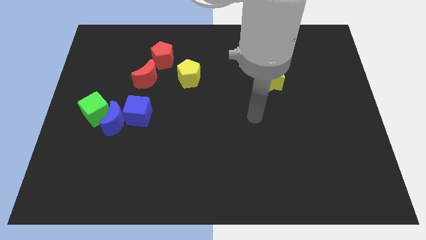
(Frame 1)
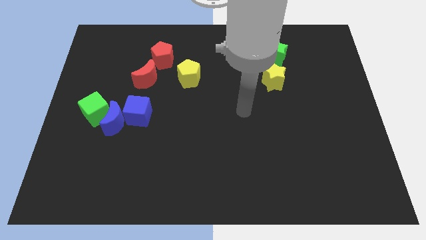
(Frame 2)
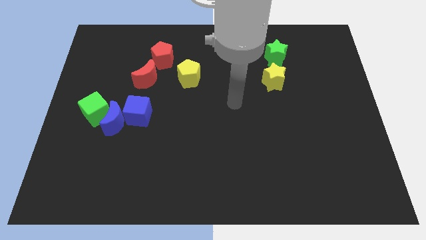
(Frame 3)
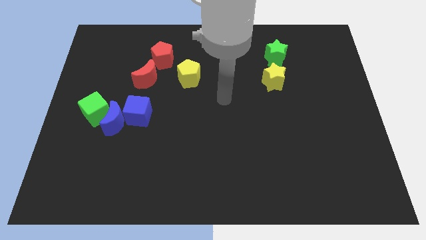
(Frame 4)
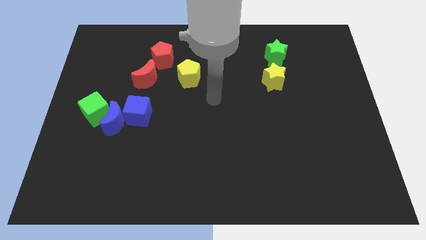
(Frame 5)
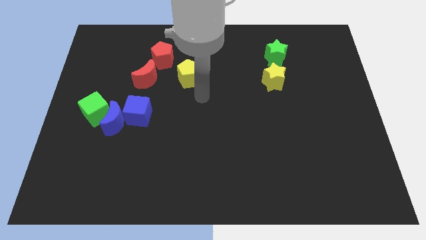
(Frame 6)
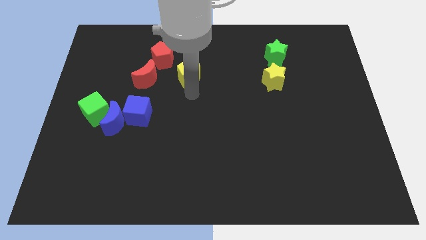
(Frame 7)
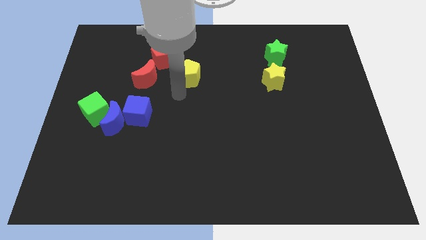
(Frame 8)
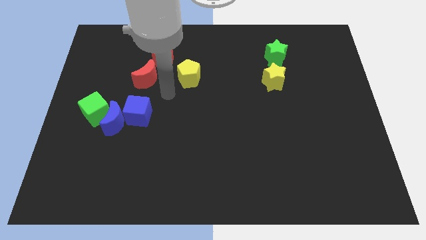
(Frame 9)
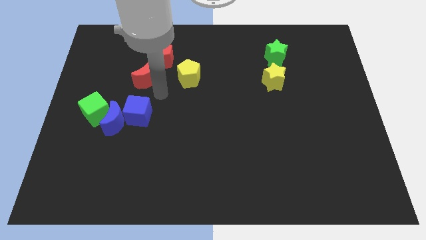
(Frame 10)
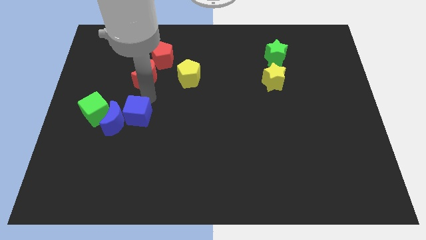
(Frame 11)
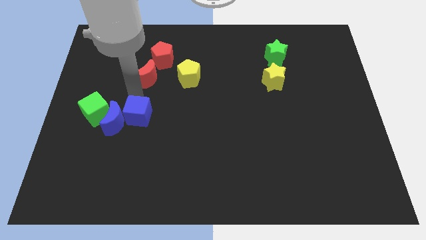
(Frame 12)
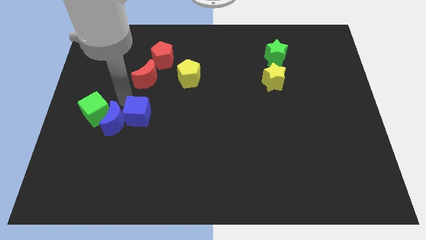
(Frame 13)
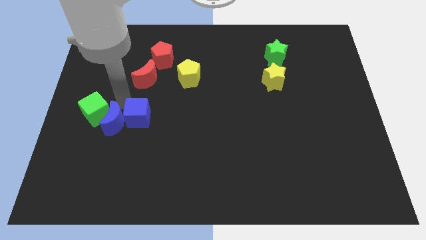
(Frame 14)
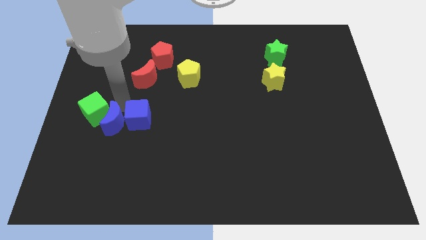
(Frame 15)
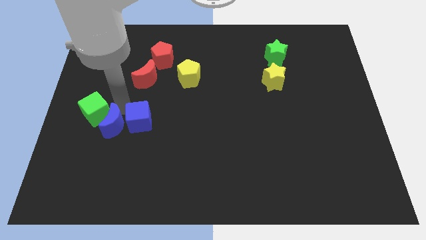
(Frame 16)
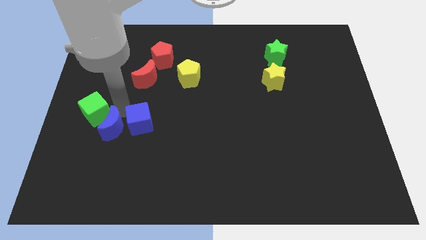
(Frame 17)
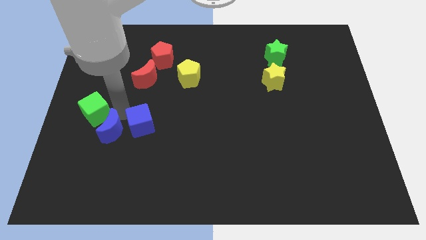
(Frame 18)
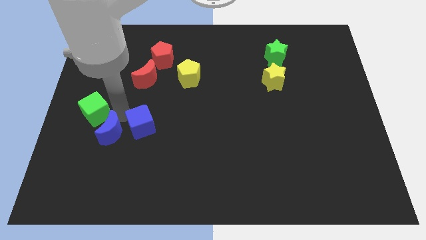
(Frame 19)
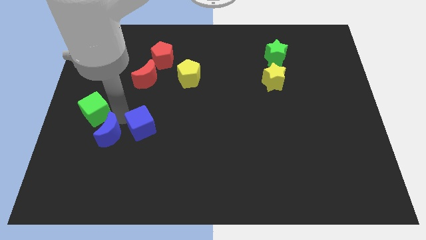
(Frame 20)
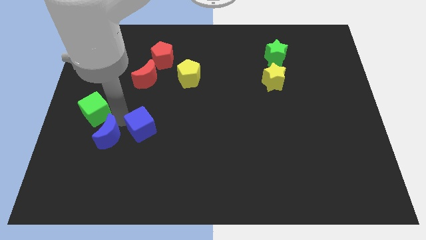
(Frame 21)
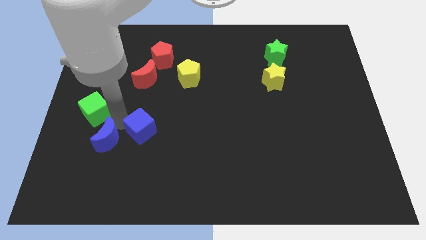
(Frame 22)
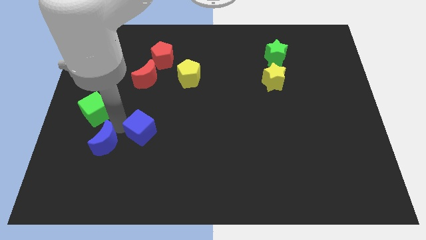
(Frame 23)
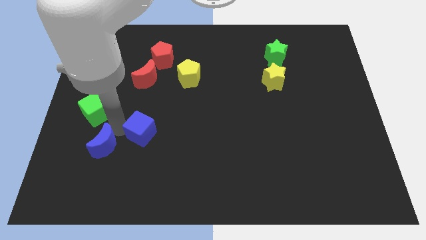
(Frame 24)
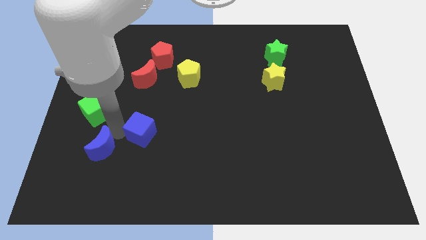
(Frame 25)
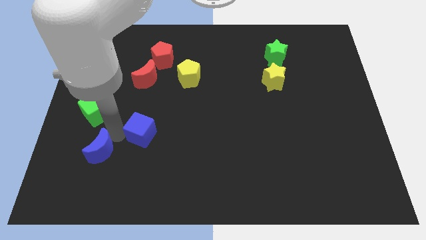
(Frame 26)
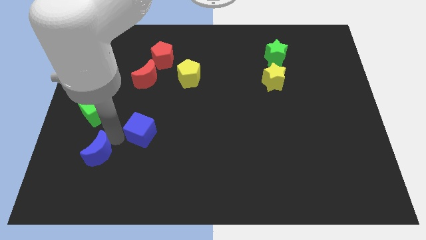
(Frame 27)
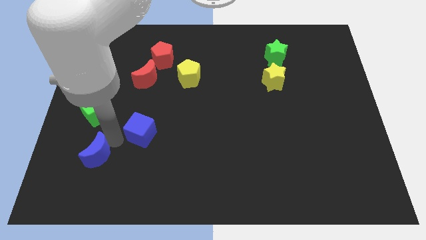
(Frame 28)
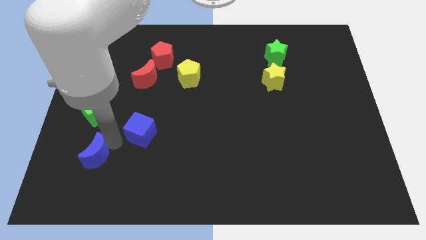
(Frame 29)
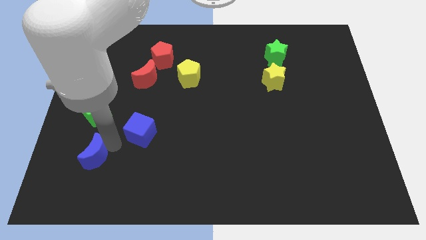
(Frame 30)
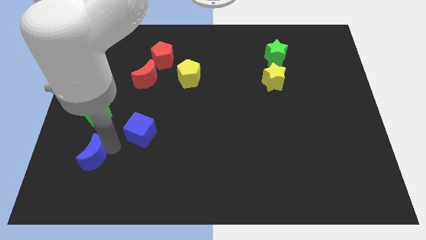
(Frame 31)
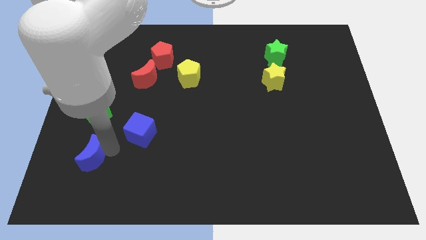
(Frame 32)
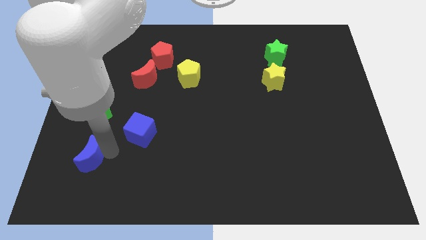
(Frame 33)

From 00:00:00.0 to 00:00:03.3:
pull the blue moon apart from the blue cube and green cube

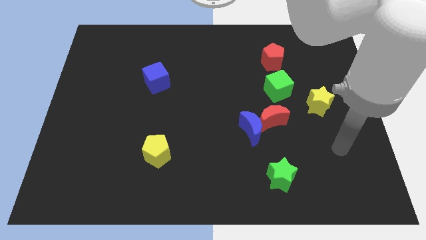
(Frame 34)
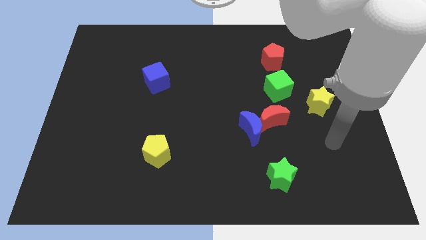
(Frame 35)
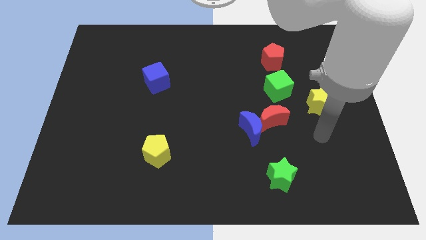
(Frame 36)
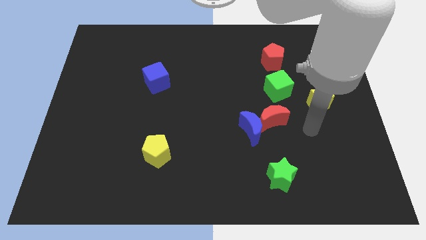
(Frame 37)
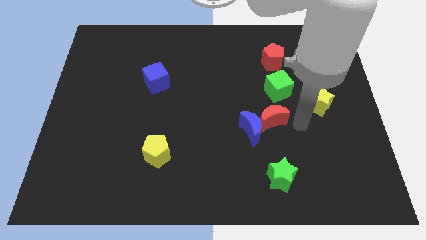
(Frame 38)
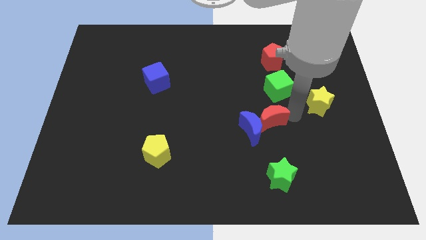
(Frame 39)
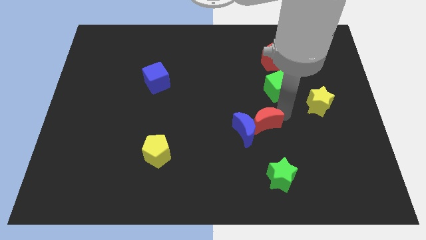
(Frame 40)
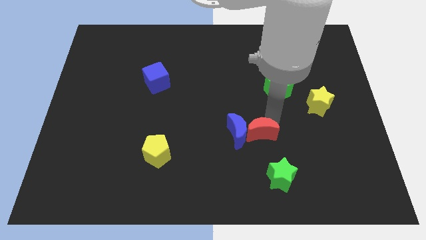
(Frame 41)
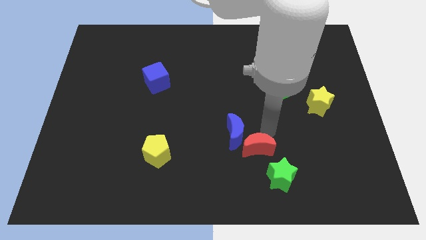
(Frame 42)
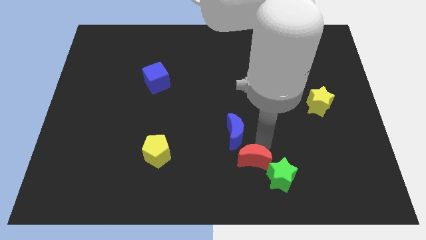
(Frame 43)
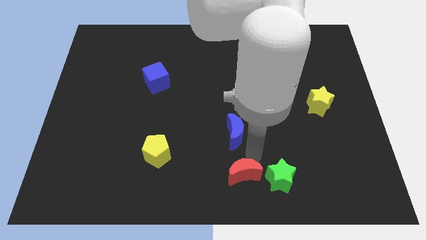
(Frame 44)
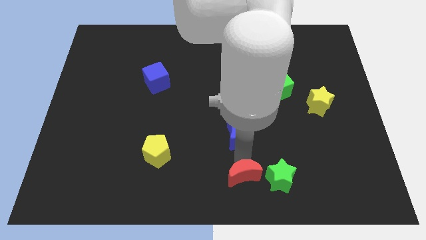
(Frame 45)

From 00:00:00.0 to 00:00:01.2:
pull the blue moon apart from the red moon

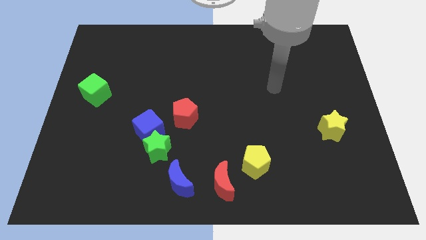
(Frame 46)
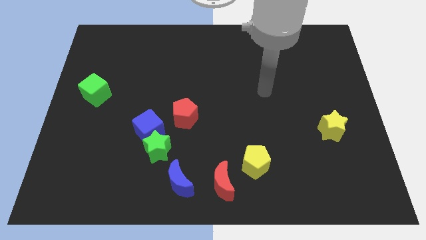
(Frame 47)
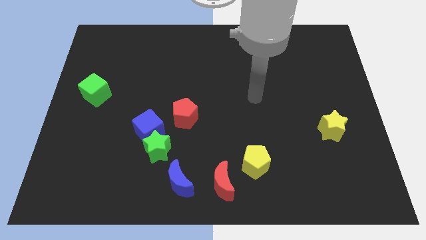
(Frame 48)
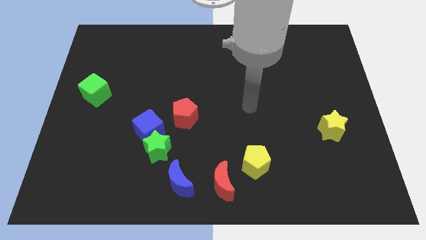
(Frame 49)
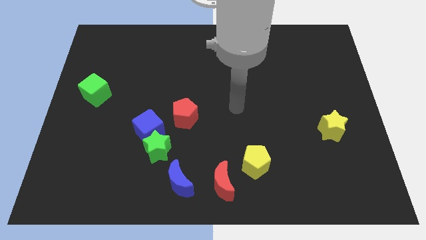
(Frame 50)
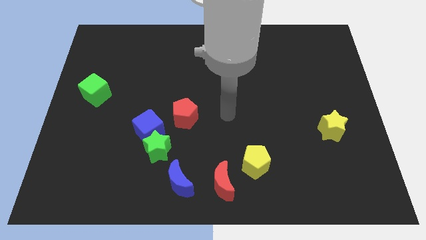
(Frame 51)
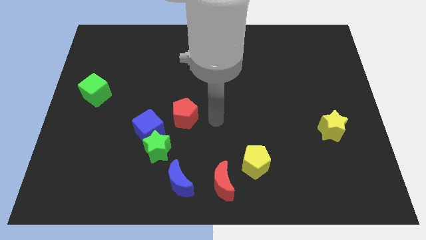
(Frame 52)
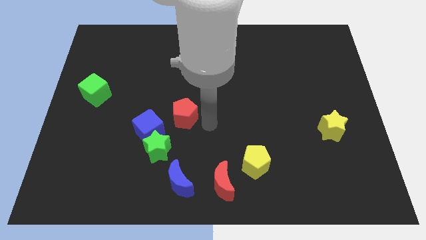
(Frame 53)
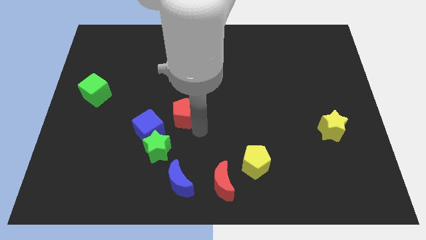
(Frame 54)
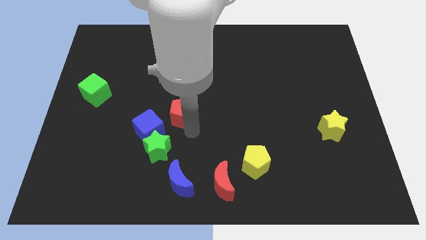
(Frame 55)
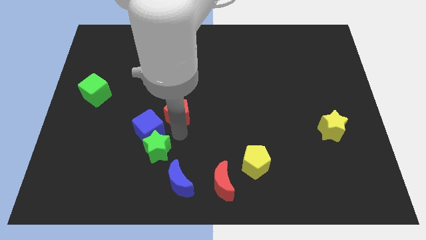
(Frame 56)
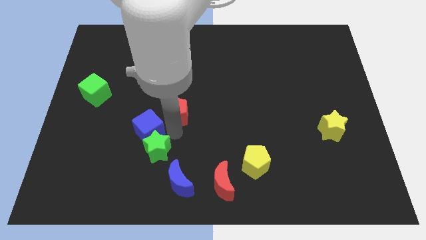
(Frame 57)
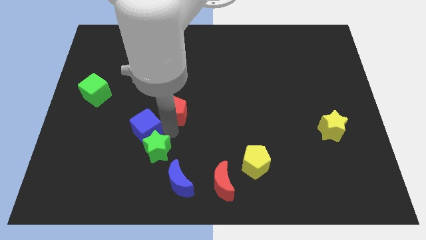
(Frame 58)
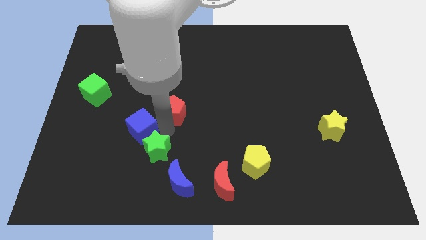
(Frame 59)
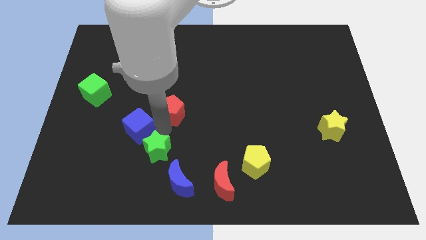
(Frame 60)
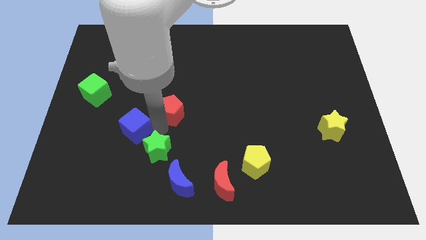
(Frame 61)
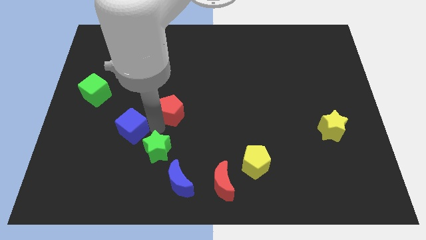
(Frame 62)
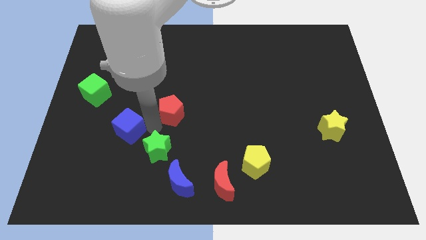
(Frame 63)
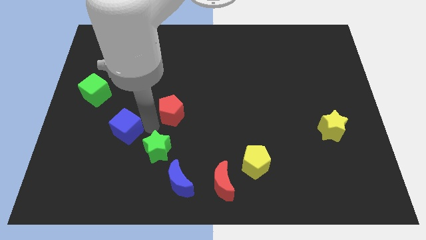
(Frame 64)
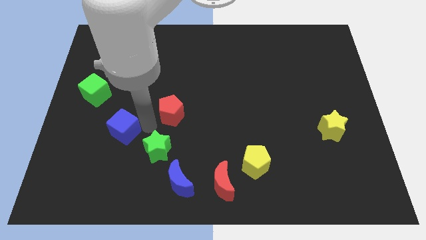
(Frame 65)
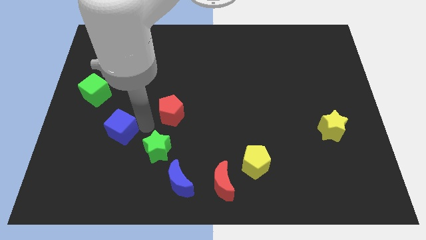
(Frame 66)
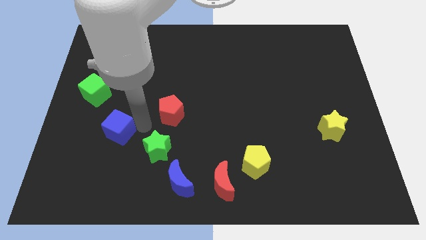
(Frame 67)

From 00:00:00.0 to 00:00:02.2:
pull the blue cube apart from the green star and red pentagon

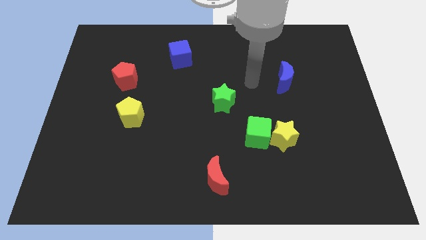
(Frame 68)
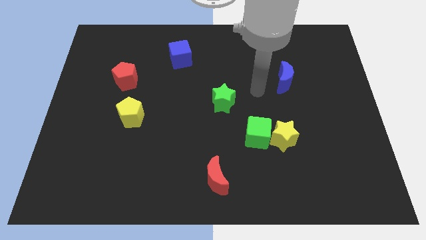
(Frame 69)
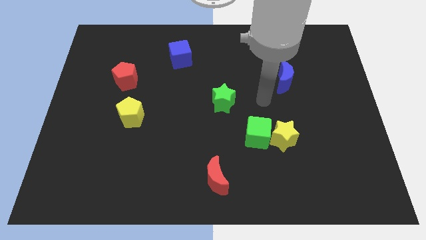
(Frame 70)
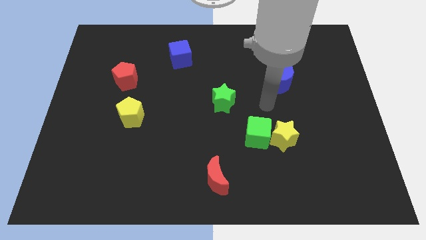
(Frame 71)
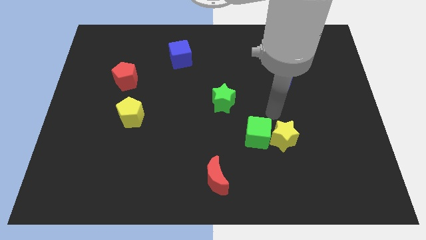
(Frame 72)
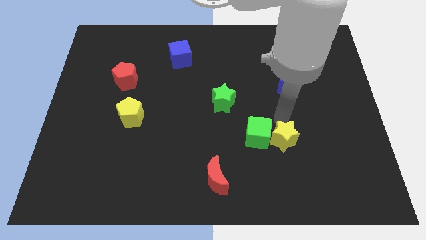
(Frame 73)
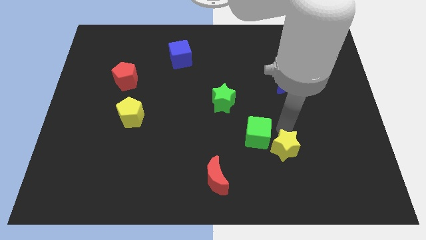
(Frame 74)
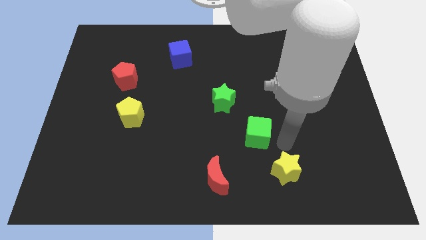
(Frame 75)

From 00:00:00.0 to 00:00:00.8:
pull the green cube apart from the yellow star

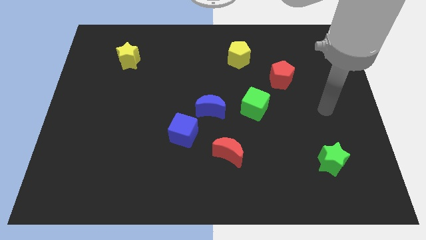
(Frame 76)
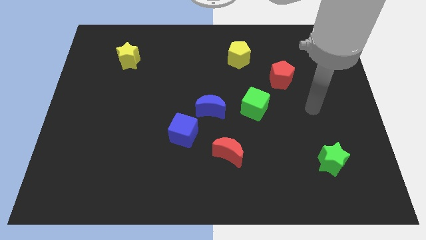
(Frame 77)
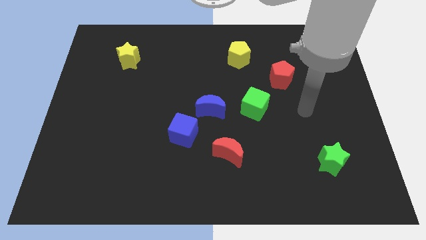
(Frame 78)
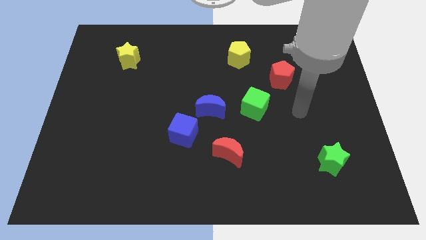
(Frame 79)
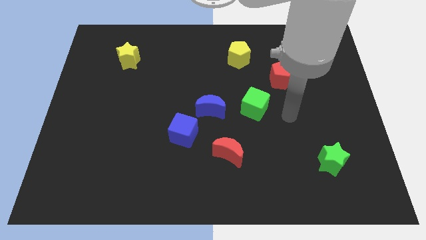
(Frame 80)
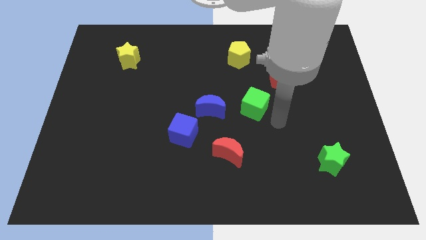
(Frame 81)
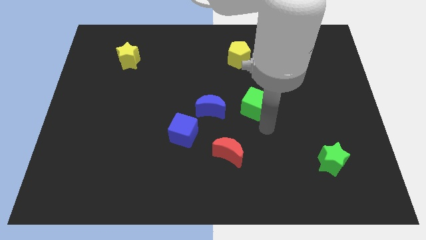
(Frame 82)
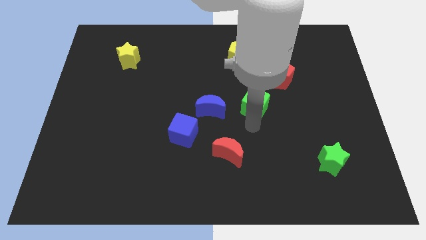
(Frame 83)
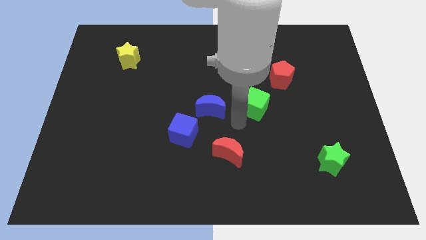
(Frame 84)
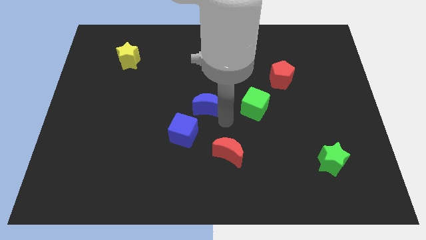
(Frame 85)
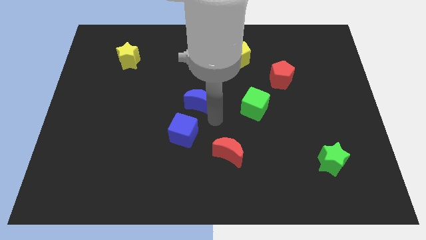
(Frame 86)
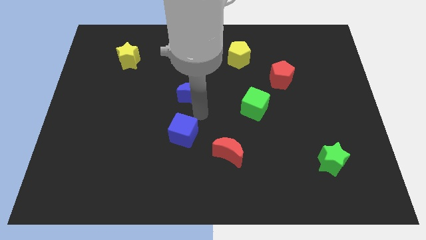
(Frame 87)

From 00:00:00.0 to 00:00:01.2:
separate the blue cube from the blue moon

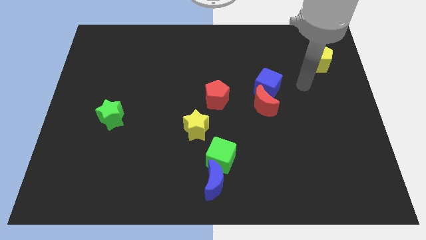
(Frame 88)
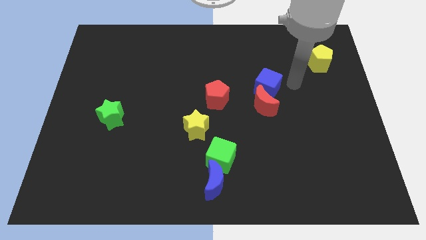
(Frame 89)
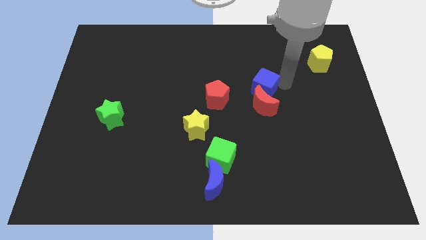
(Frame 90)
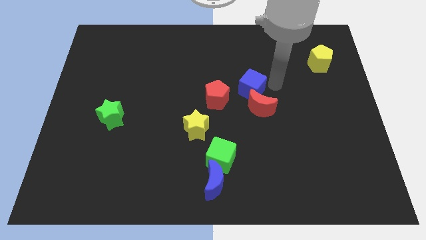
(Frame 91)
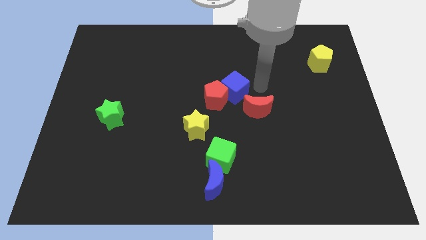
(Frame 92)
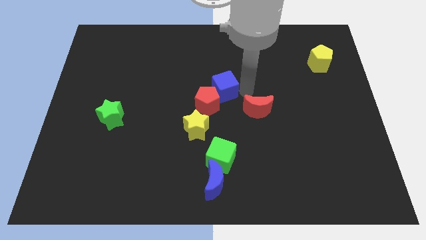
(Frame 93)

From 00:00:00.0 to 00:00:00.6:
separate the red moon from the blue cube

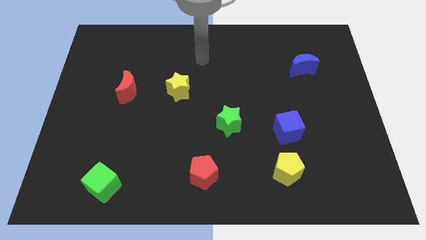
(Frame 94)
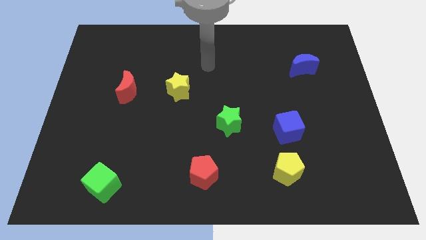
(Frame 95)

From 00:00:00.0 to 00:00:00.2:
separate the blue cube from the yellow pentagon
